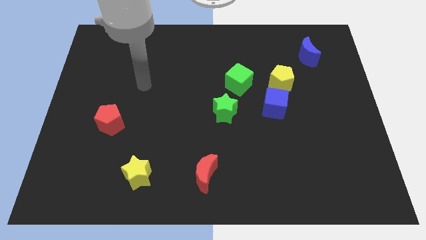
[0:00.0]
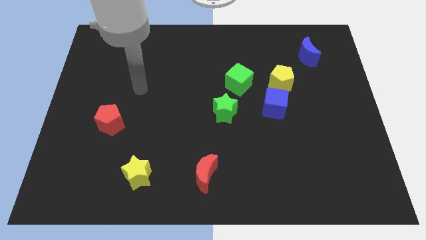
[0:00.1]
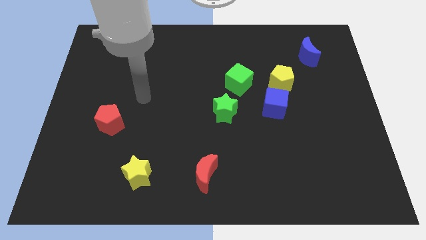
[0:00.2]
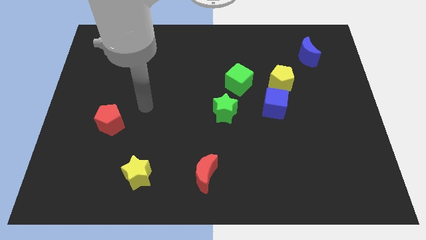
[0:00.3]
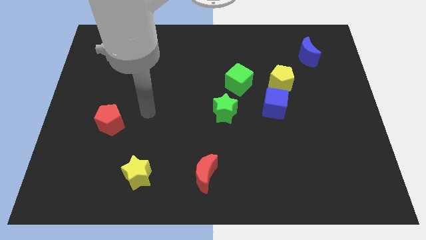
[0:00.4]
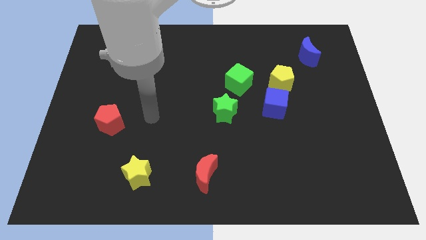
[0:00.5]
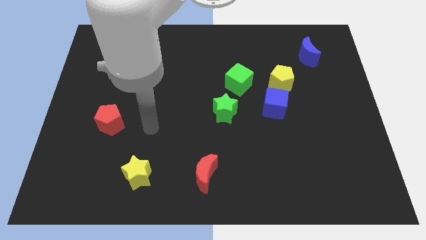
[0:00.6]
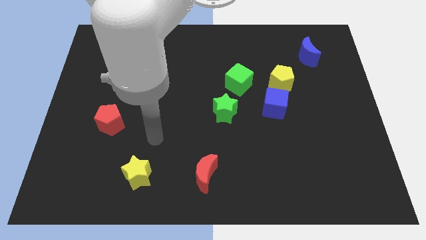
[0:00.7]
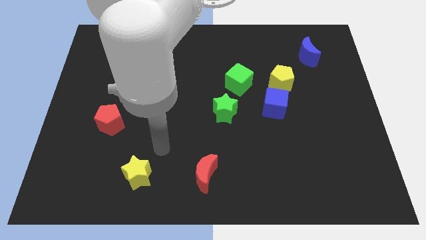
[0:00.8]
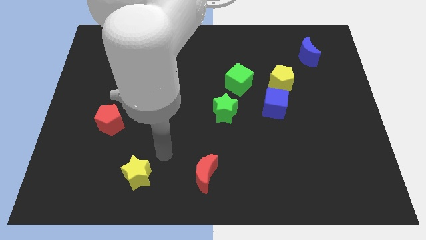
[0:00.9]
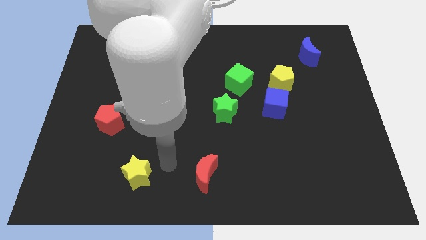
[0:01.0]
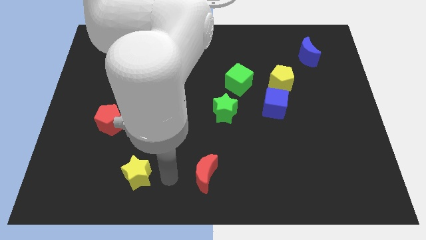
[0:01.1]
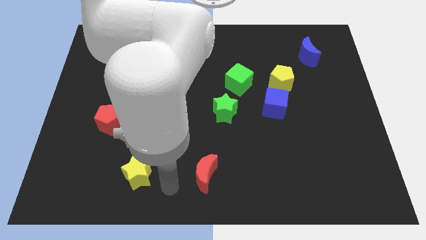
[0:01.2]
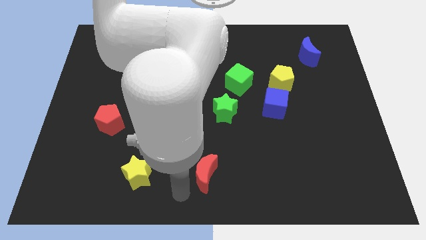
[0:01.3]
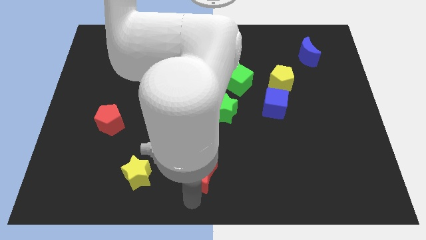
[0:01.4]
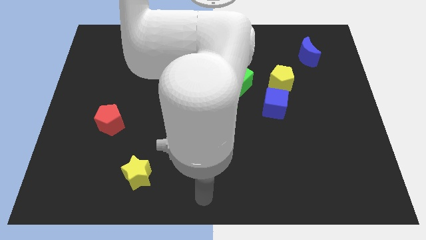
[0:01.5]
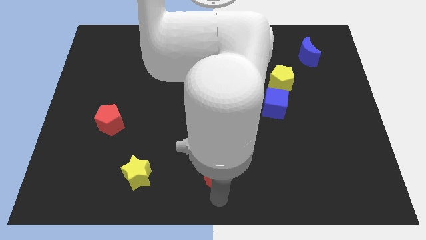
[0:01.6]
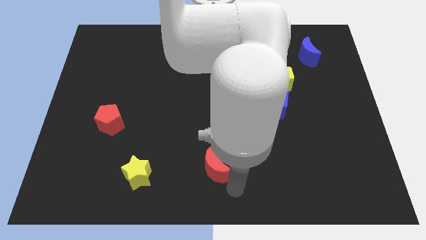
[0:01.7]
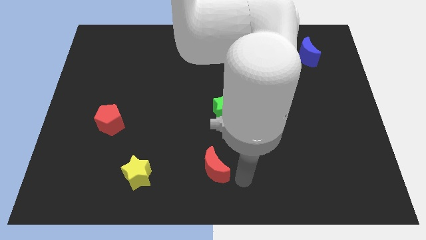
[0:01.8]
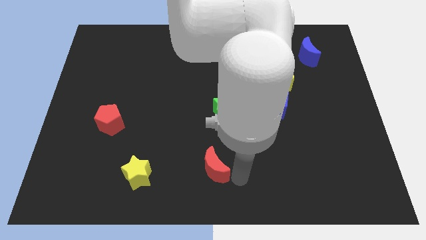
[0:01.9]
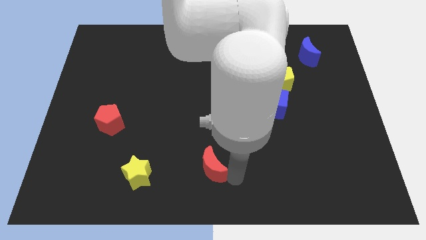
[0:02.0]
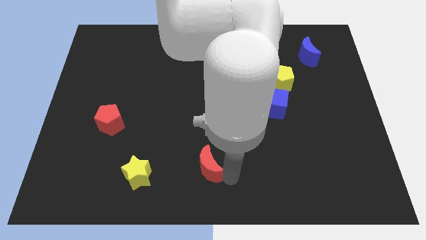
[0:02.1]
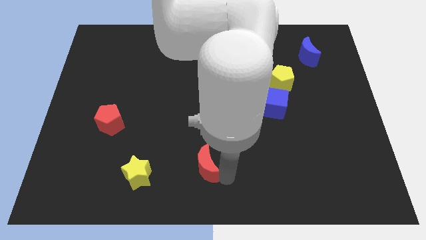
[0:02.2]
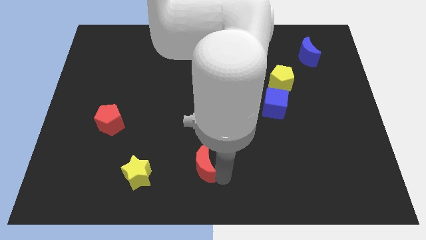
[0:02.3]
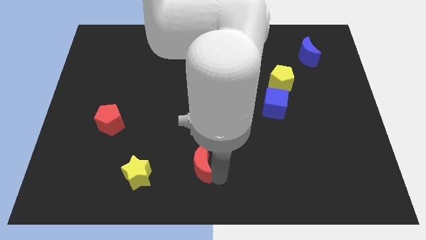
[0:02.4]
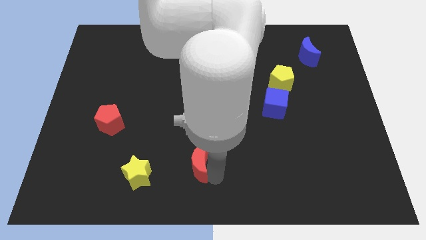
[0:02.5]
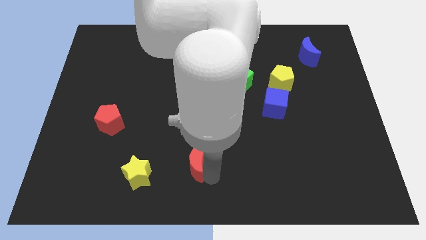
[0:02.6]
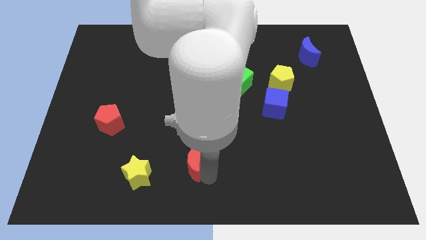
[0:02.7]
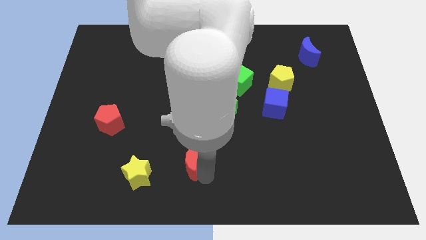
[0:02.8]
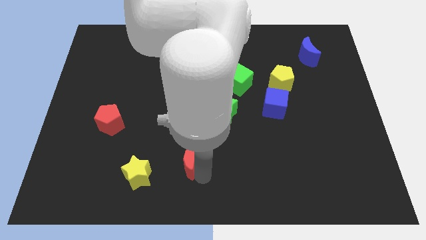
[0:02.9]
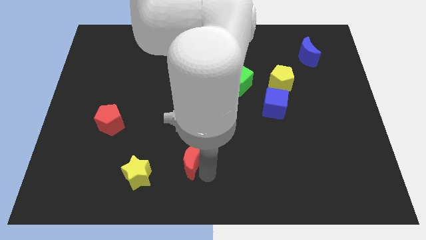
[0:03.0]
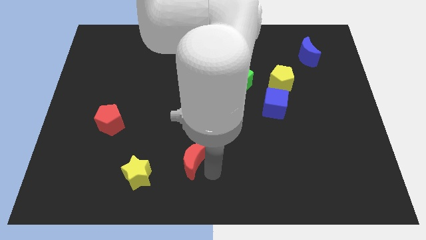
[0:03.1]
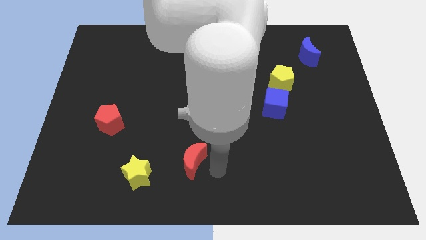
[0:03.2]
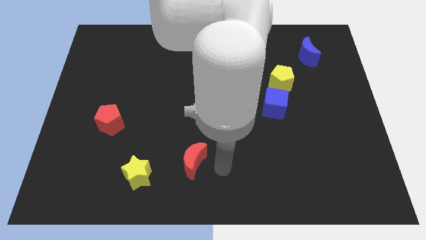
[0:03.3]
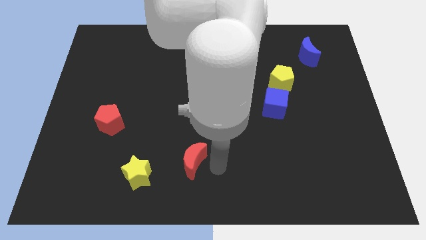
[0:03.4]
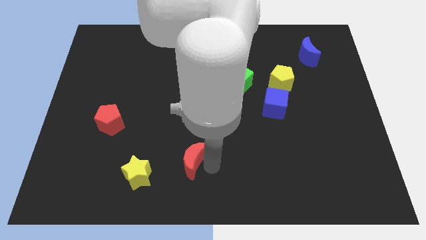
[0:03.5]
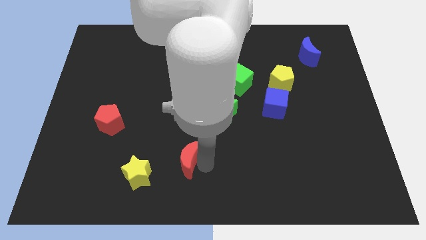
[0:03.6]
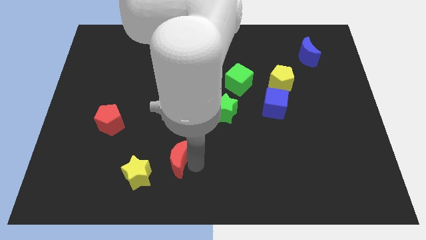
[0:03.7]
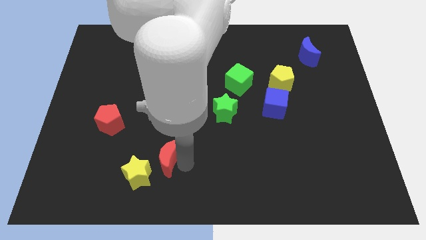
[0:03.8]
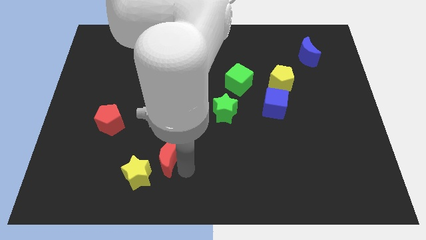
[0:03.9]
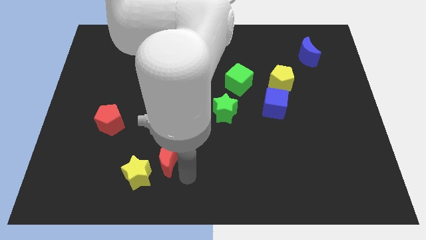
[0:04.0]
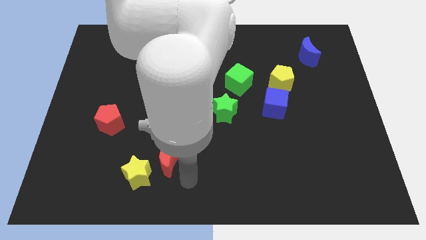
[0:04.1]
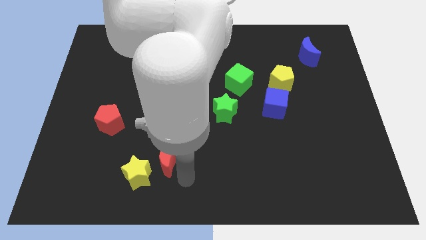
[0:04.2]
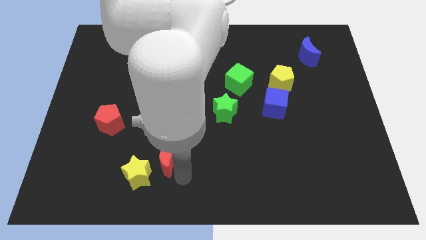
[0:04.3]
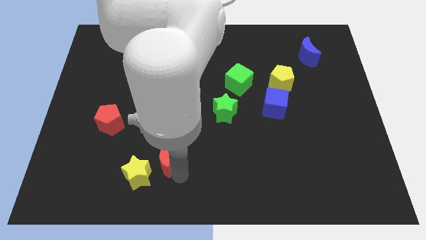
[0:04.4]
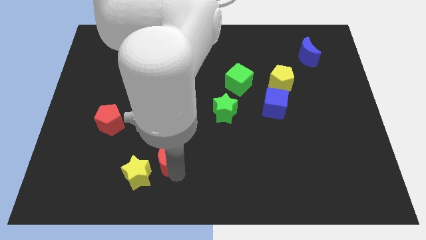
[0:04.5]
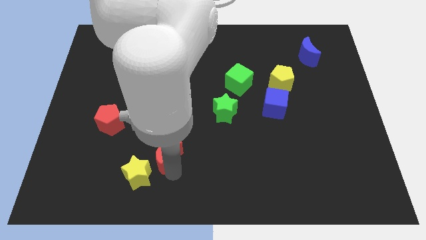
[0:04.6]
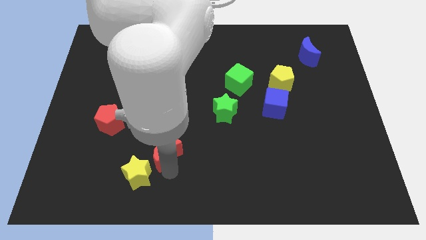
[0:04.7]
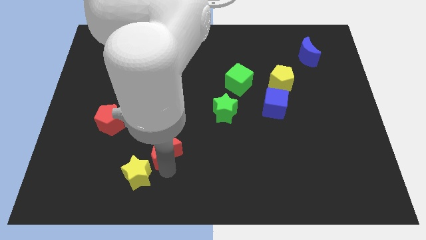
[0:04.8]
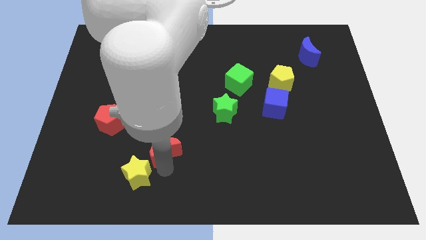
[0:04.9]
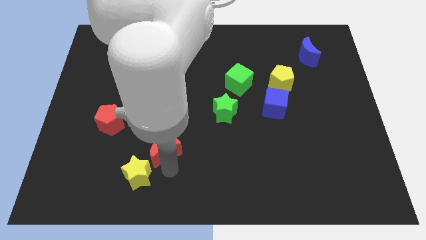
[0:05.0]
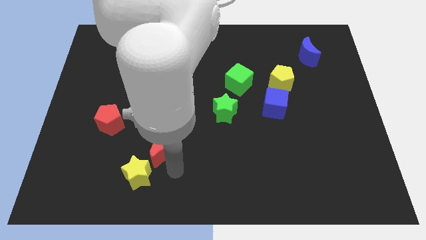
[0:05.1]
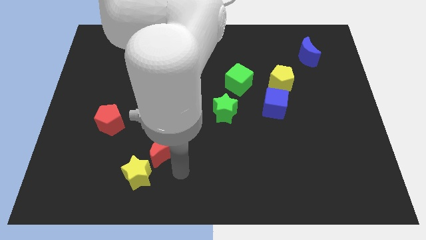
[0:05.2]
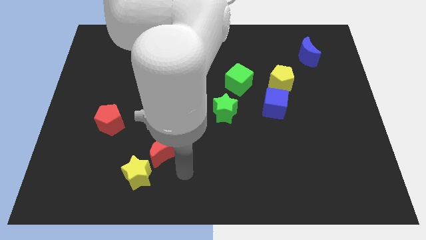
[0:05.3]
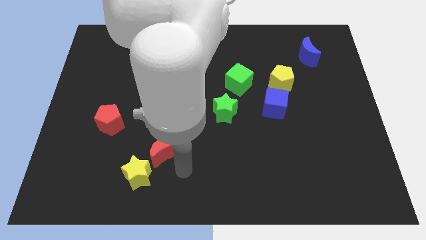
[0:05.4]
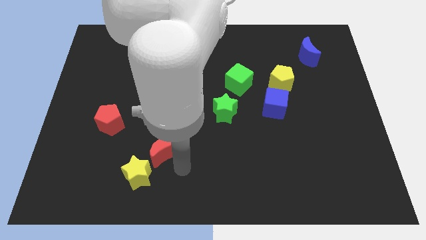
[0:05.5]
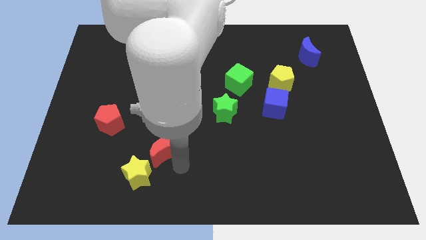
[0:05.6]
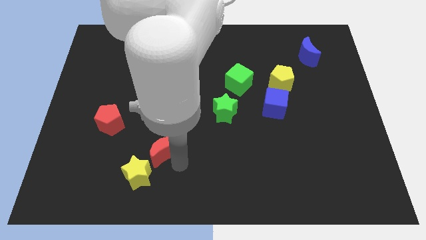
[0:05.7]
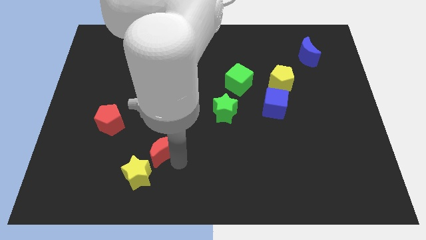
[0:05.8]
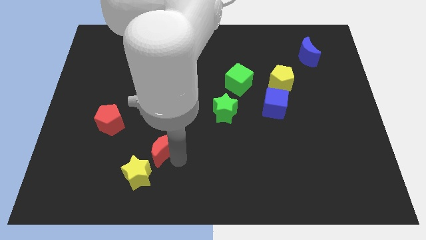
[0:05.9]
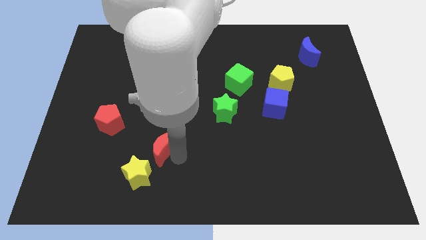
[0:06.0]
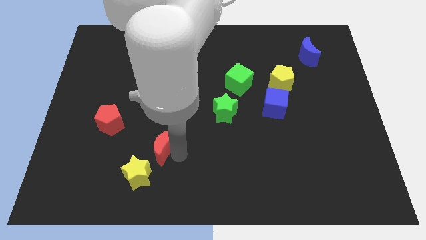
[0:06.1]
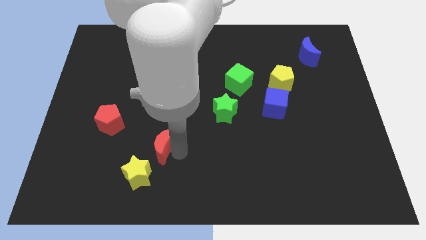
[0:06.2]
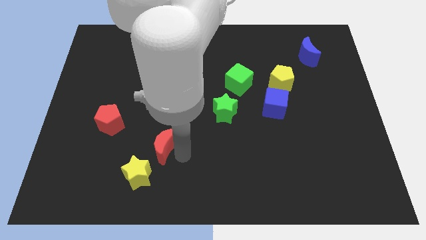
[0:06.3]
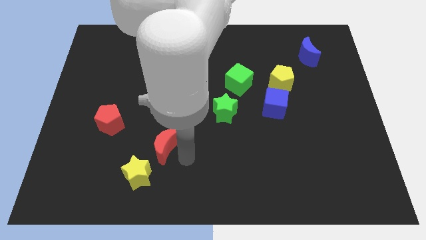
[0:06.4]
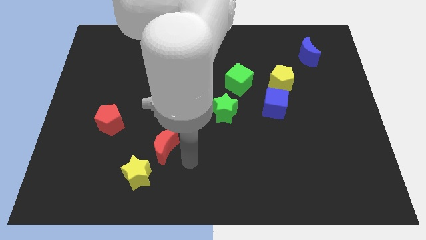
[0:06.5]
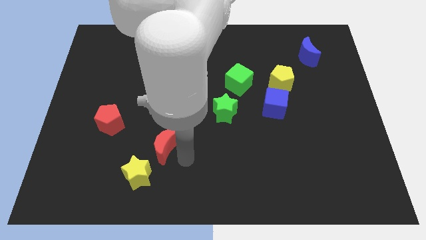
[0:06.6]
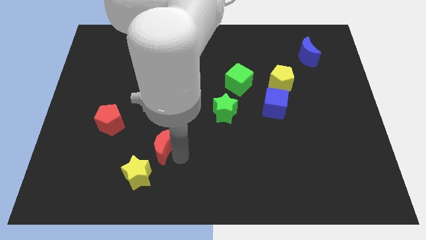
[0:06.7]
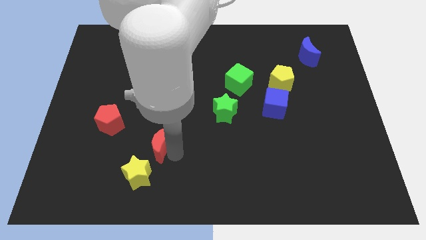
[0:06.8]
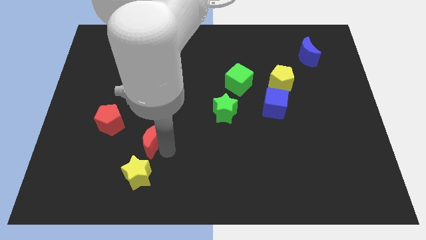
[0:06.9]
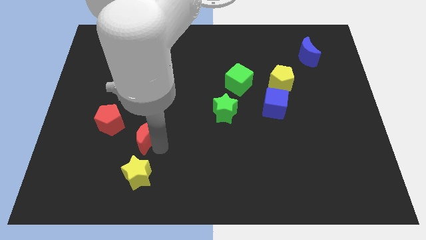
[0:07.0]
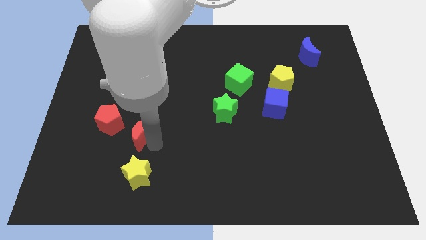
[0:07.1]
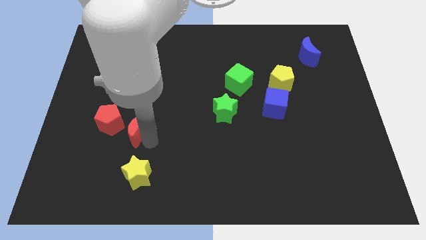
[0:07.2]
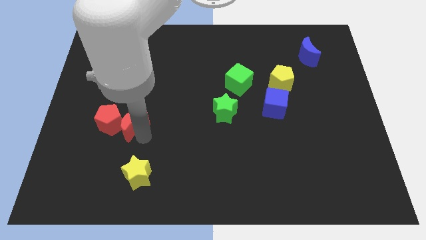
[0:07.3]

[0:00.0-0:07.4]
slide the red moon up and then to the left

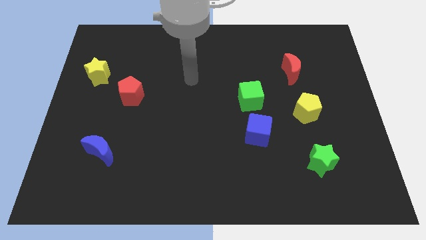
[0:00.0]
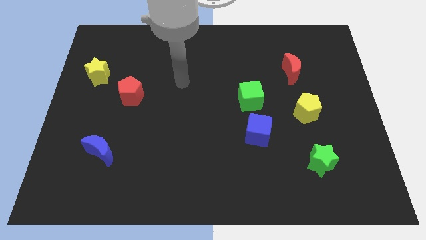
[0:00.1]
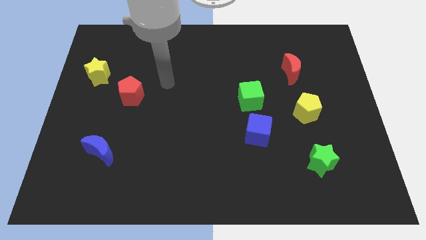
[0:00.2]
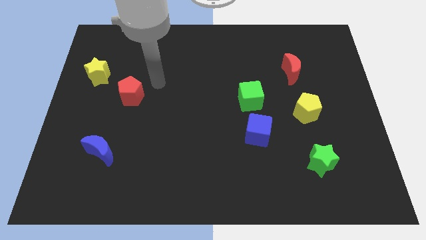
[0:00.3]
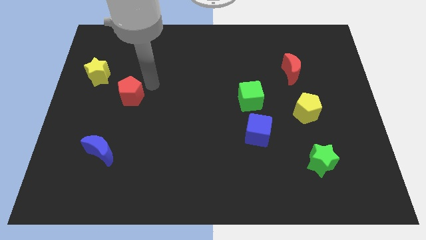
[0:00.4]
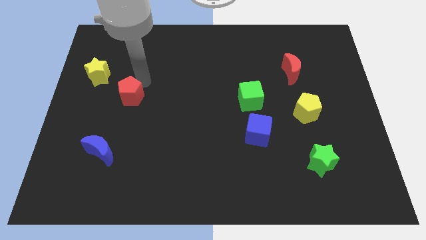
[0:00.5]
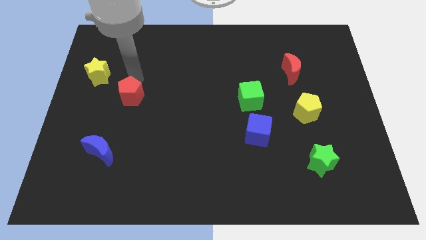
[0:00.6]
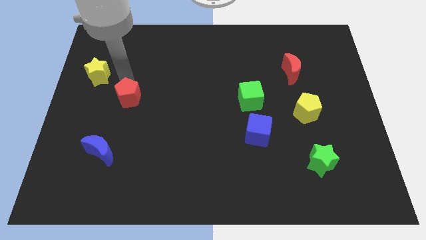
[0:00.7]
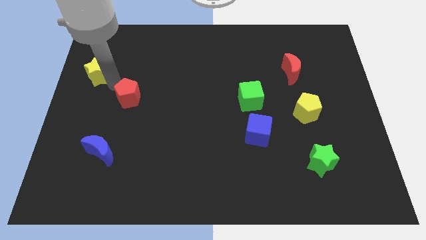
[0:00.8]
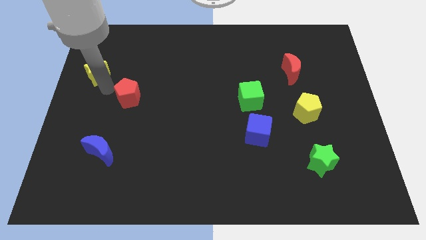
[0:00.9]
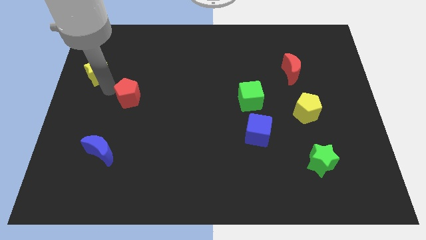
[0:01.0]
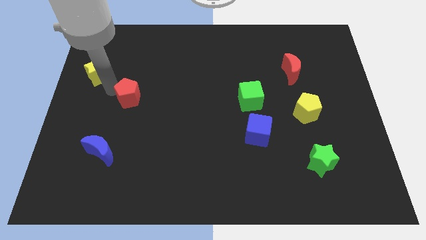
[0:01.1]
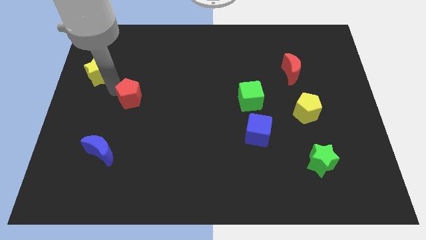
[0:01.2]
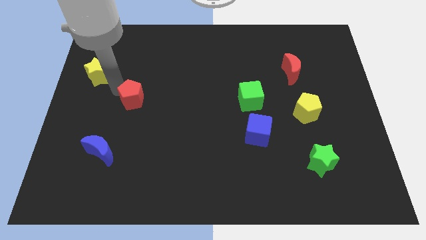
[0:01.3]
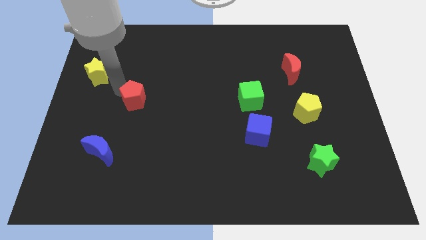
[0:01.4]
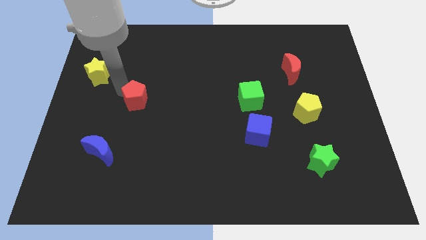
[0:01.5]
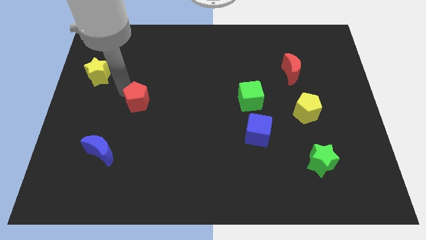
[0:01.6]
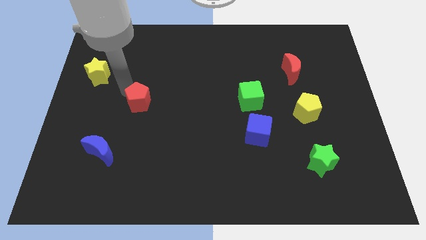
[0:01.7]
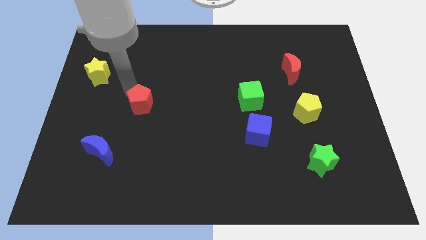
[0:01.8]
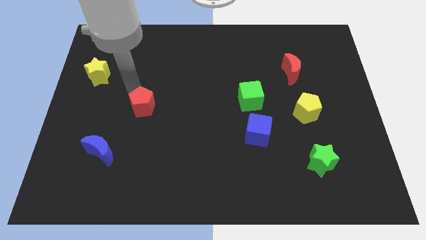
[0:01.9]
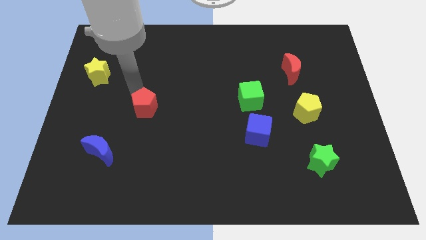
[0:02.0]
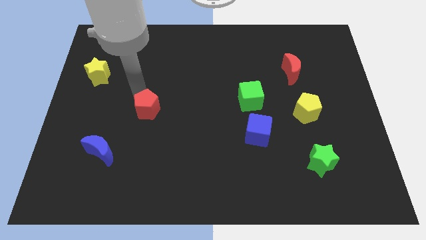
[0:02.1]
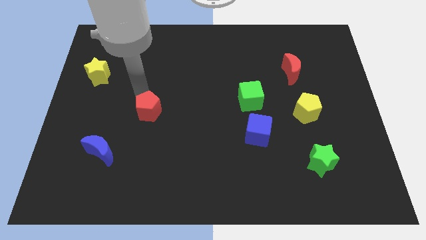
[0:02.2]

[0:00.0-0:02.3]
slide the red pentagon a little bit down and right diagonally
